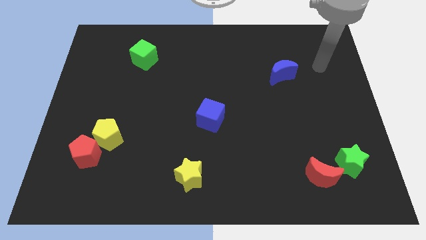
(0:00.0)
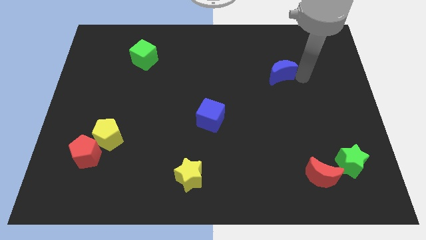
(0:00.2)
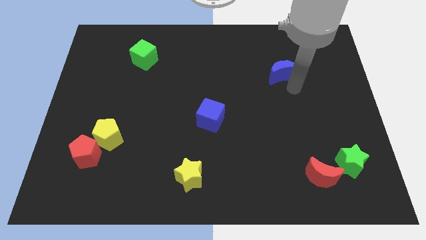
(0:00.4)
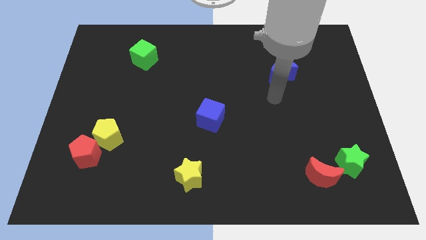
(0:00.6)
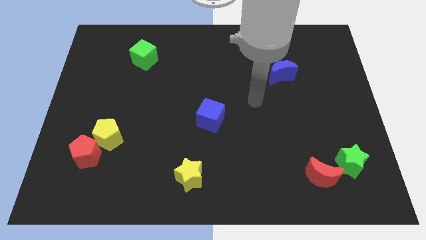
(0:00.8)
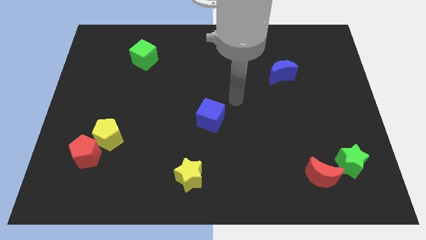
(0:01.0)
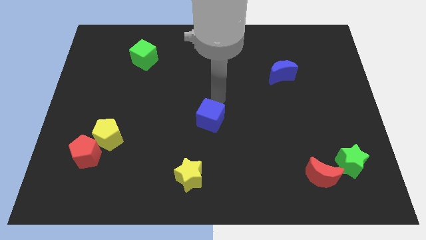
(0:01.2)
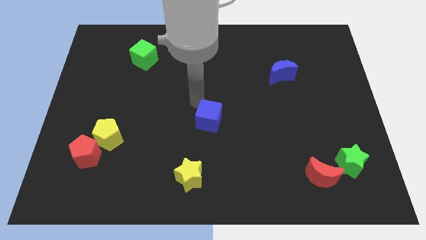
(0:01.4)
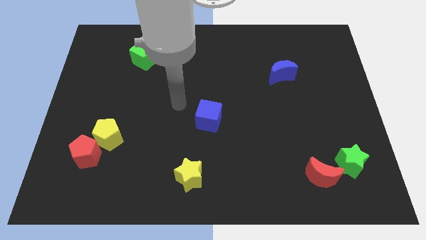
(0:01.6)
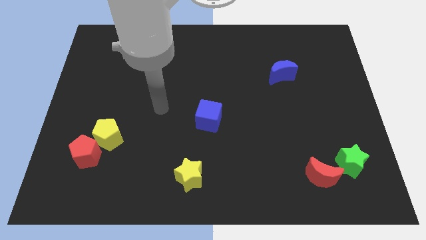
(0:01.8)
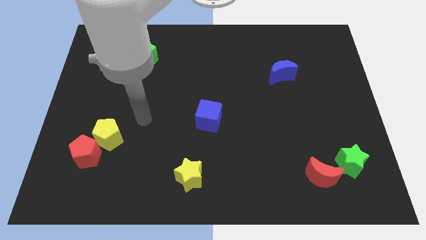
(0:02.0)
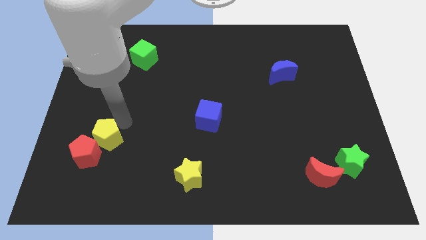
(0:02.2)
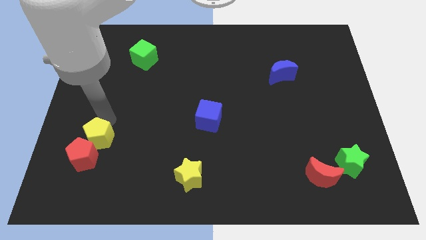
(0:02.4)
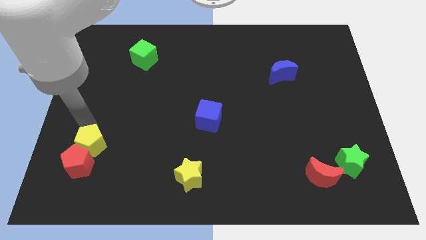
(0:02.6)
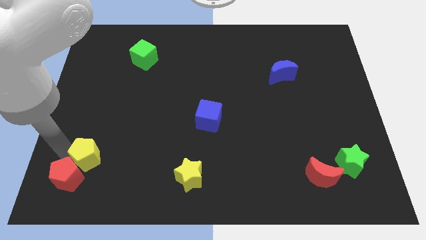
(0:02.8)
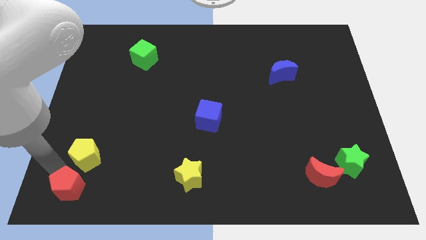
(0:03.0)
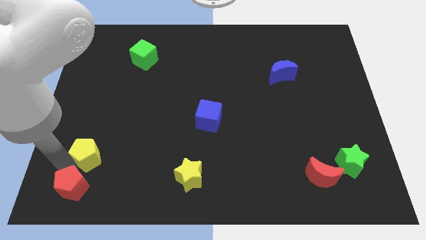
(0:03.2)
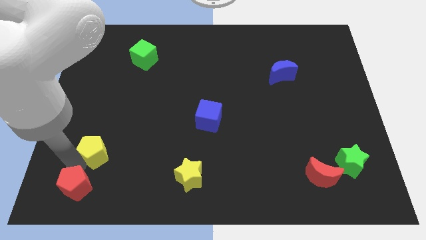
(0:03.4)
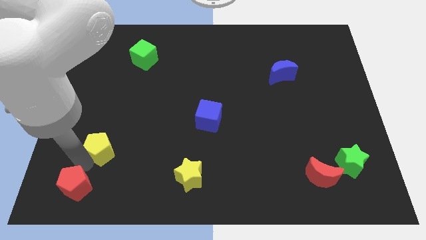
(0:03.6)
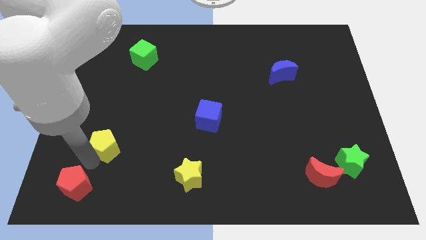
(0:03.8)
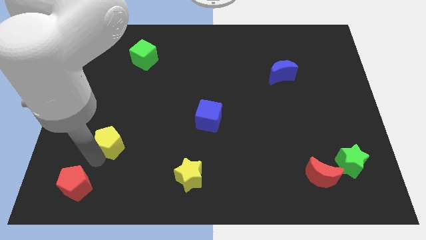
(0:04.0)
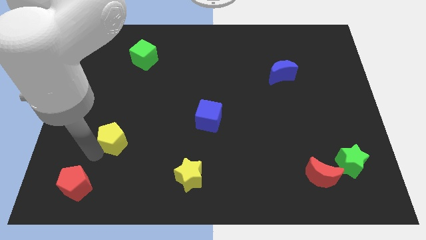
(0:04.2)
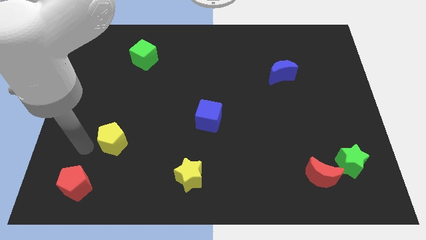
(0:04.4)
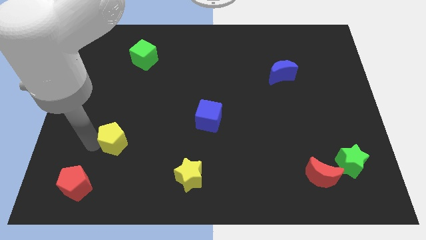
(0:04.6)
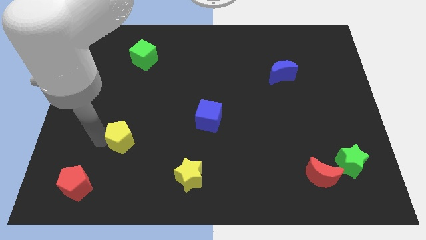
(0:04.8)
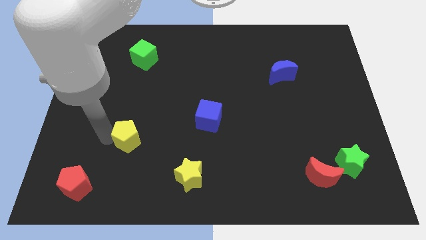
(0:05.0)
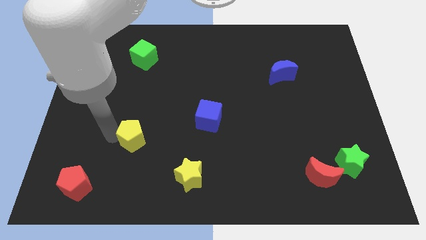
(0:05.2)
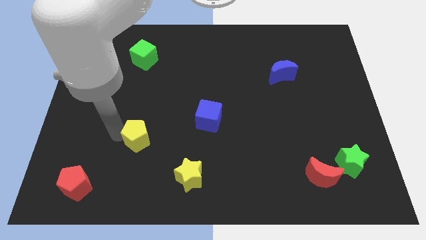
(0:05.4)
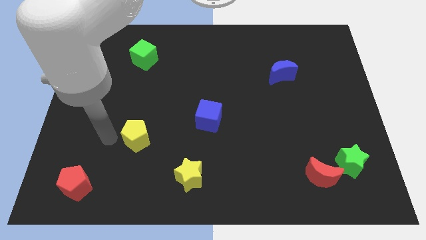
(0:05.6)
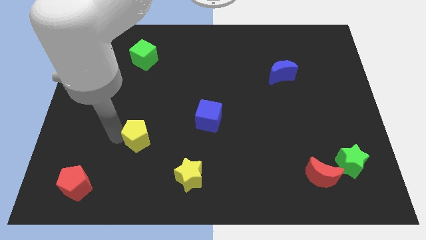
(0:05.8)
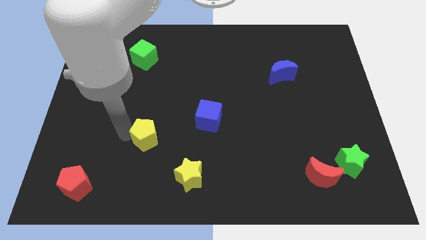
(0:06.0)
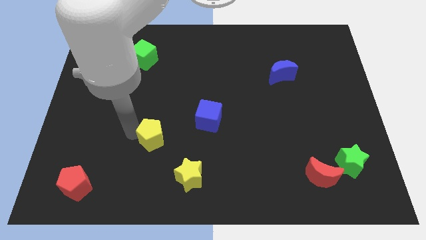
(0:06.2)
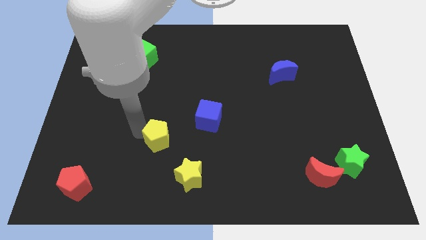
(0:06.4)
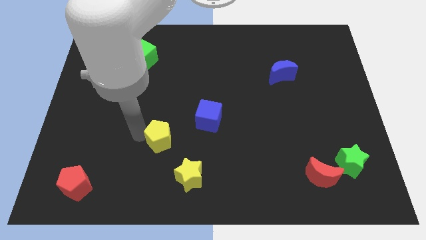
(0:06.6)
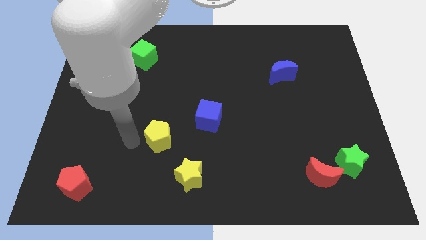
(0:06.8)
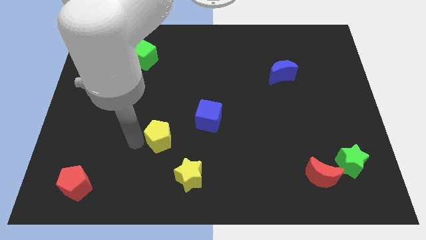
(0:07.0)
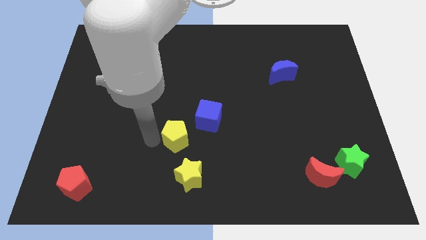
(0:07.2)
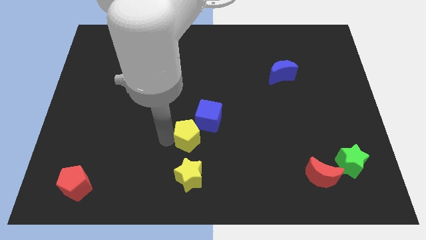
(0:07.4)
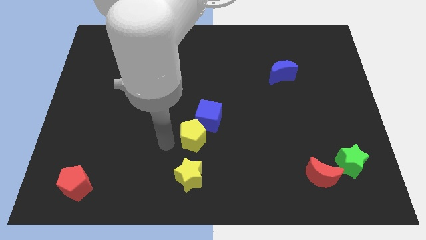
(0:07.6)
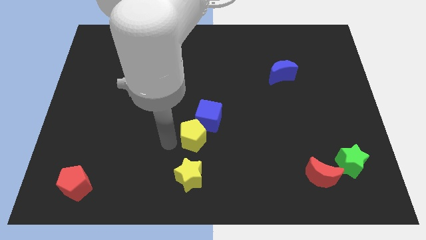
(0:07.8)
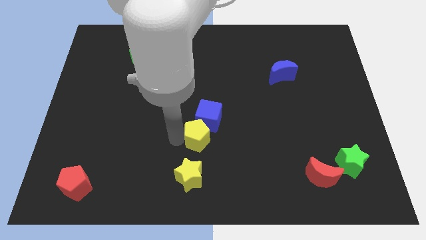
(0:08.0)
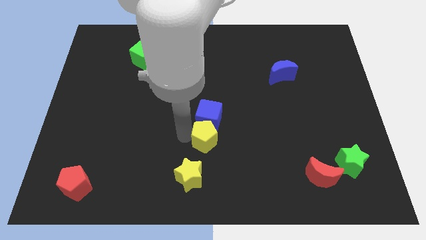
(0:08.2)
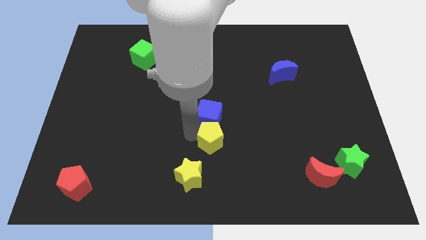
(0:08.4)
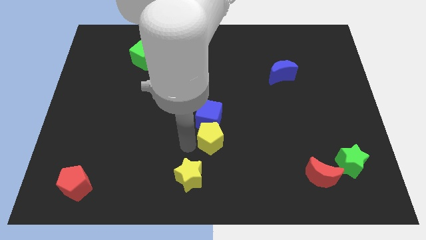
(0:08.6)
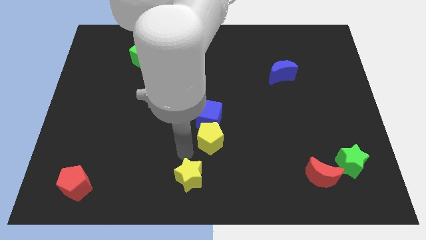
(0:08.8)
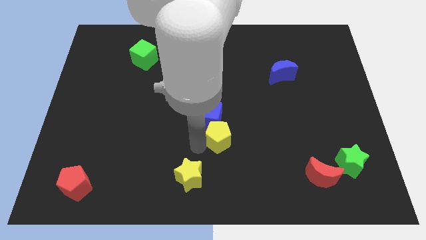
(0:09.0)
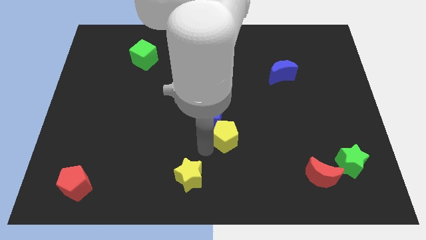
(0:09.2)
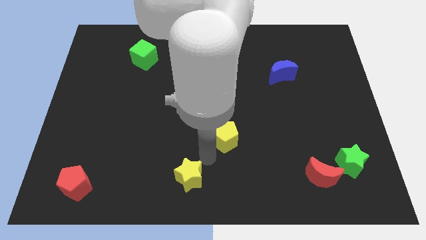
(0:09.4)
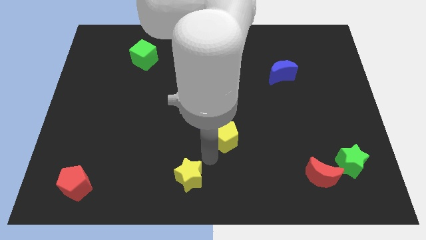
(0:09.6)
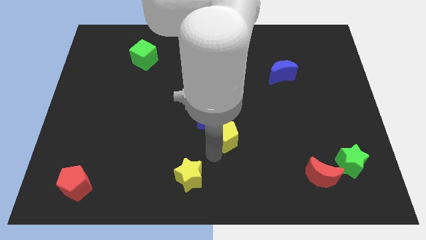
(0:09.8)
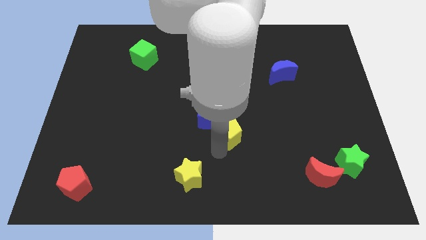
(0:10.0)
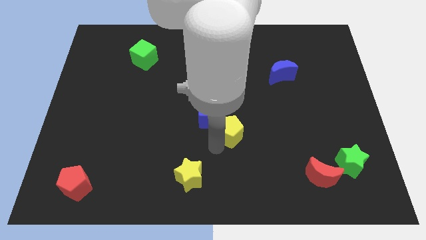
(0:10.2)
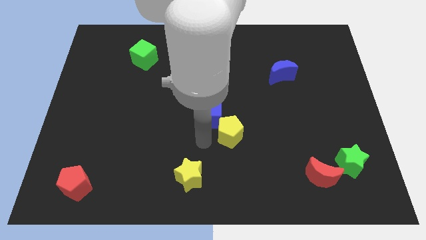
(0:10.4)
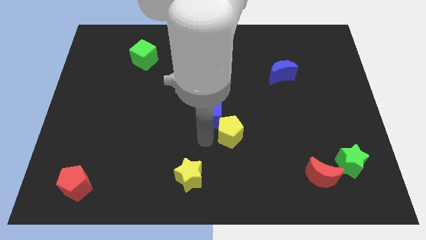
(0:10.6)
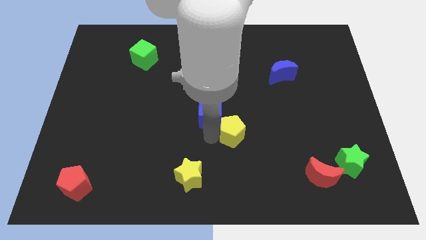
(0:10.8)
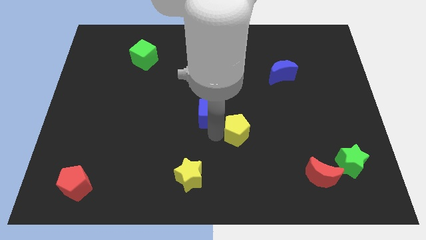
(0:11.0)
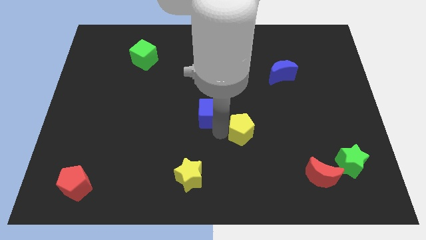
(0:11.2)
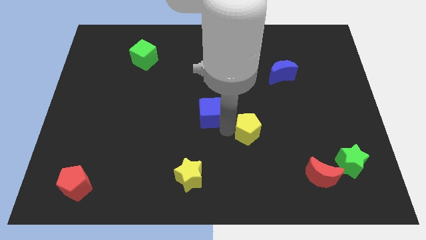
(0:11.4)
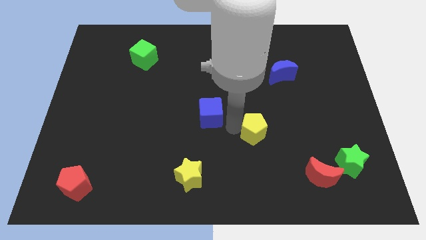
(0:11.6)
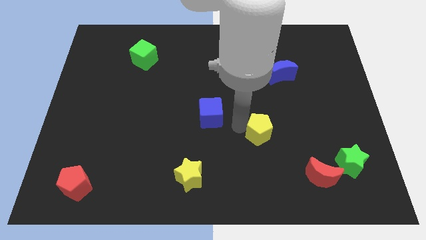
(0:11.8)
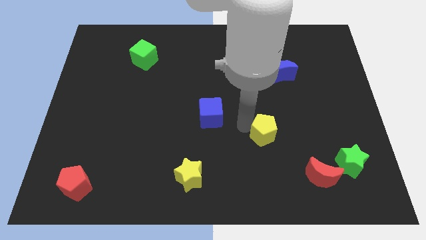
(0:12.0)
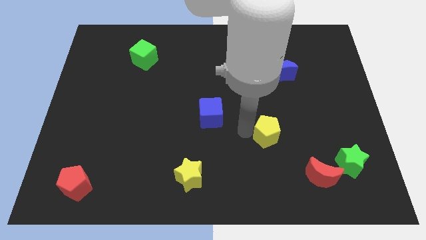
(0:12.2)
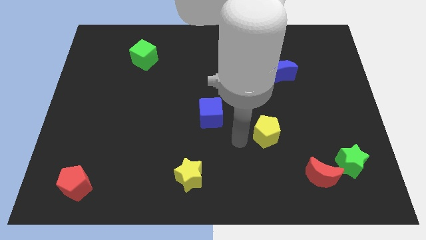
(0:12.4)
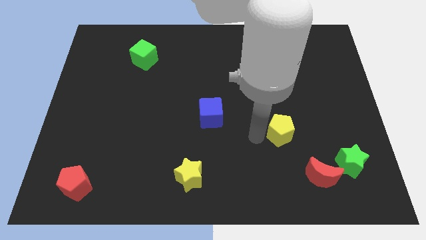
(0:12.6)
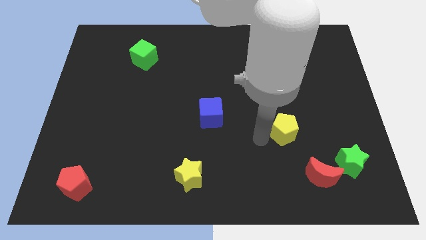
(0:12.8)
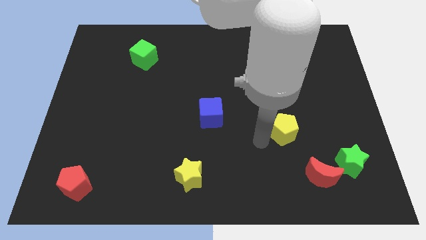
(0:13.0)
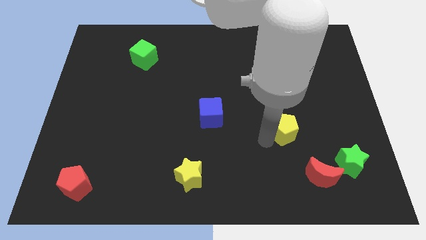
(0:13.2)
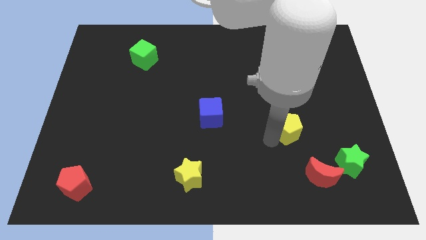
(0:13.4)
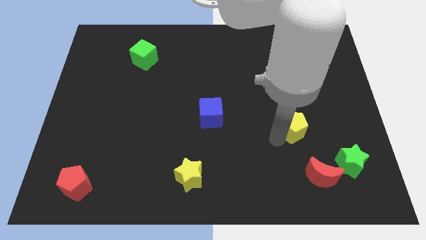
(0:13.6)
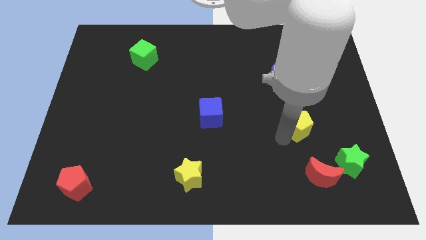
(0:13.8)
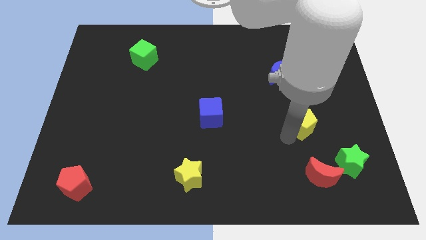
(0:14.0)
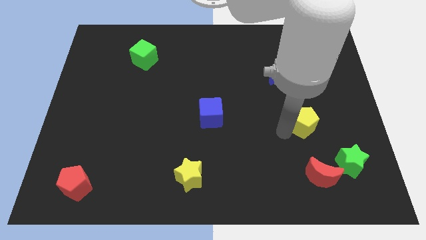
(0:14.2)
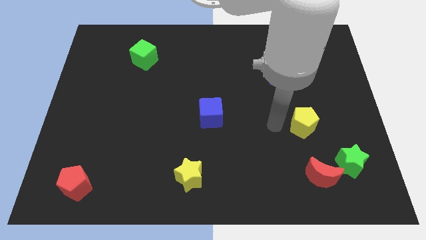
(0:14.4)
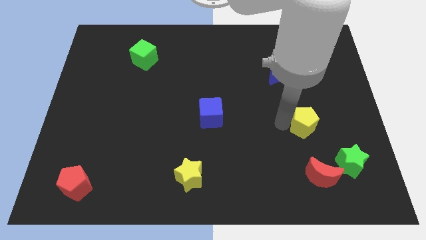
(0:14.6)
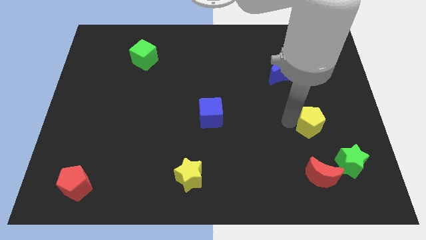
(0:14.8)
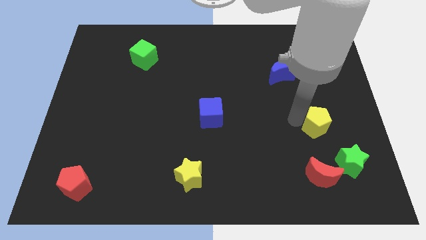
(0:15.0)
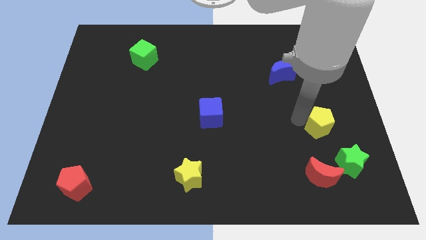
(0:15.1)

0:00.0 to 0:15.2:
move the yellow pentagon to the top side of the green star
